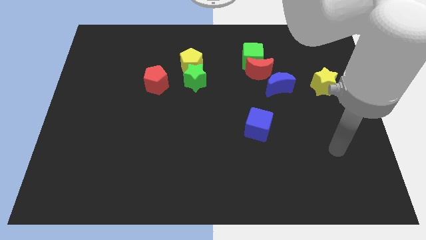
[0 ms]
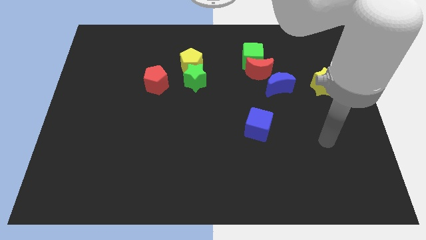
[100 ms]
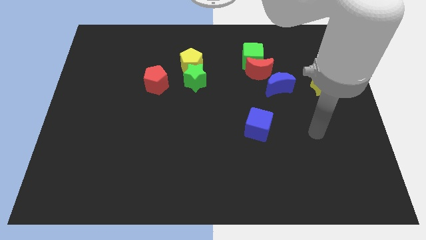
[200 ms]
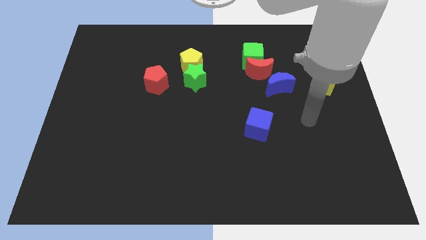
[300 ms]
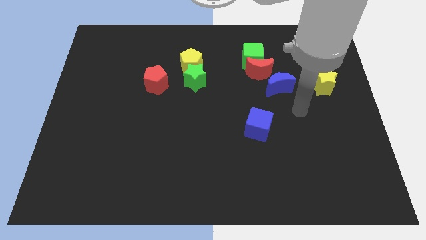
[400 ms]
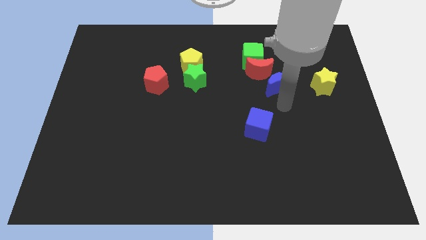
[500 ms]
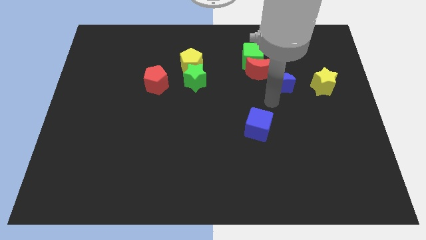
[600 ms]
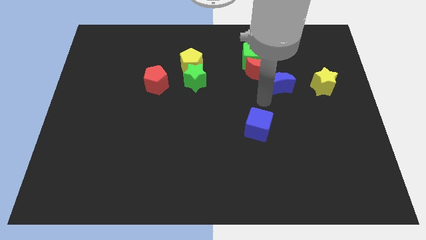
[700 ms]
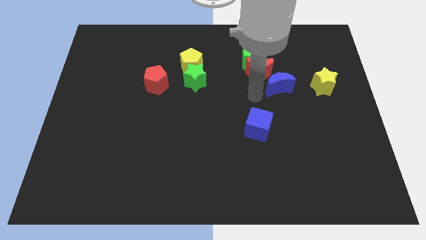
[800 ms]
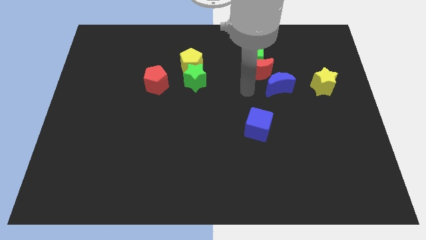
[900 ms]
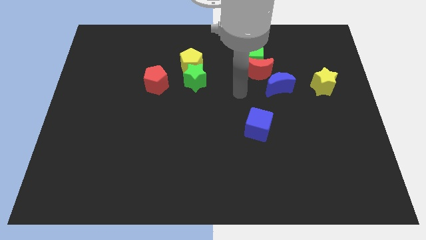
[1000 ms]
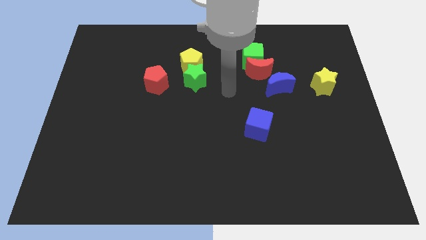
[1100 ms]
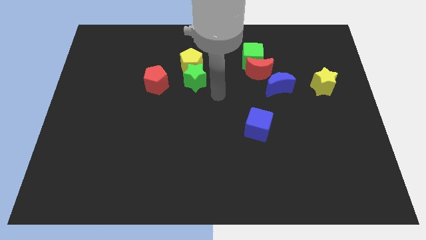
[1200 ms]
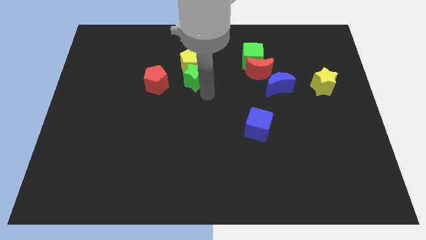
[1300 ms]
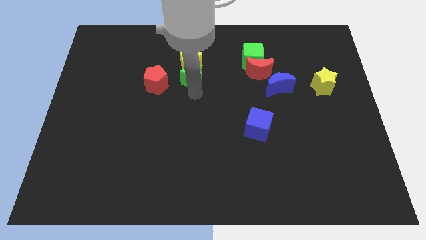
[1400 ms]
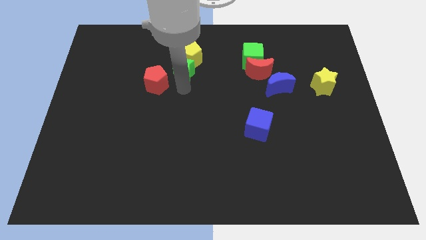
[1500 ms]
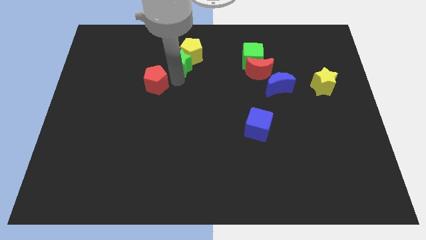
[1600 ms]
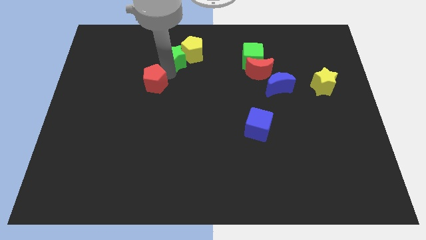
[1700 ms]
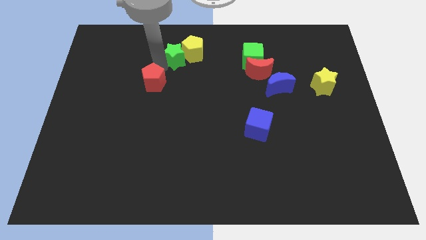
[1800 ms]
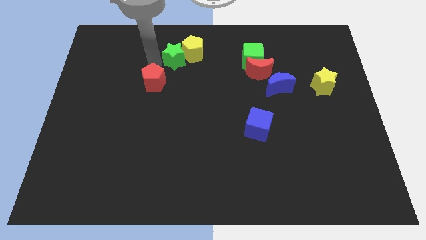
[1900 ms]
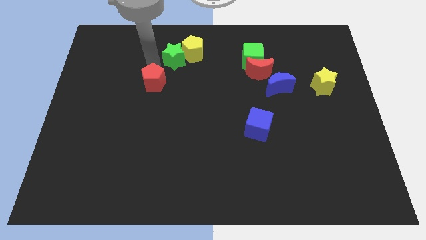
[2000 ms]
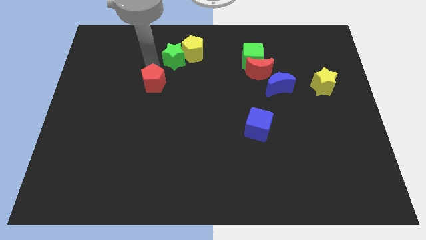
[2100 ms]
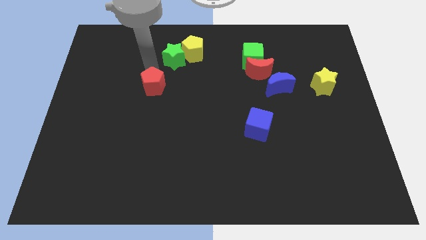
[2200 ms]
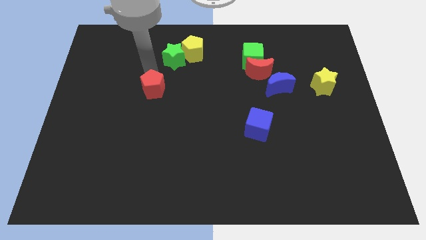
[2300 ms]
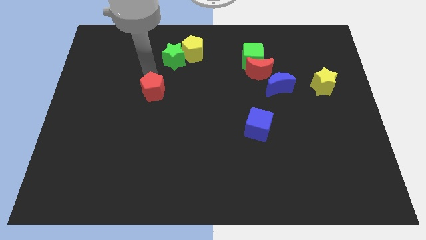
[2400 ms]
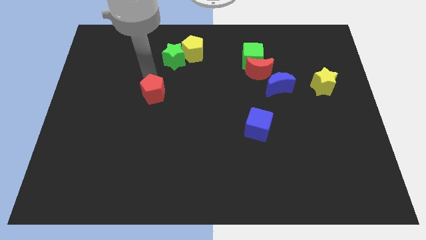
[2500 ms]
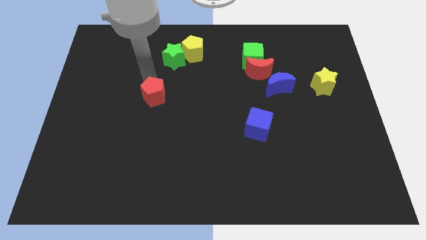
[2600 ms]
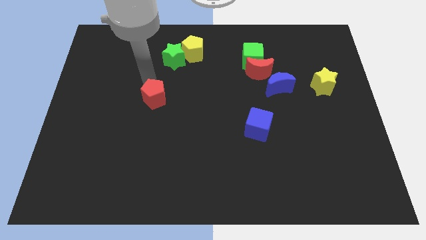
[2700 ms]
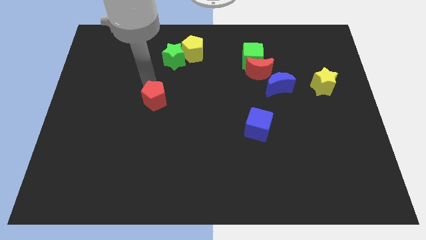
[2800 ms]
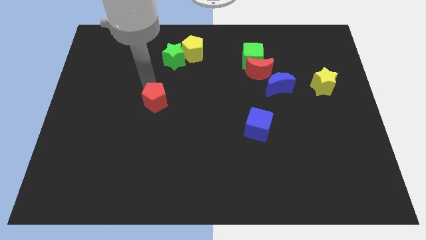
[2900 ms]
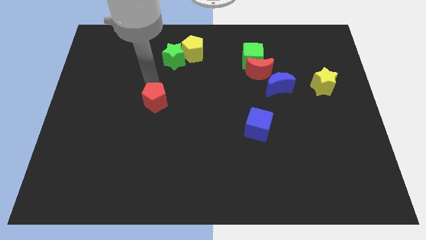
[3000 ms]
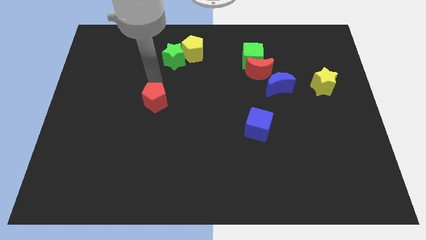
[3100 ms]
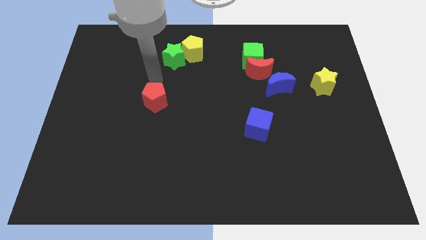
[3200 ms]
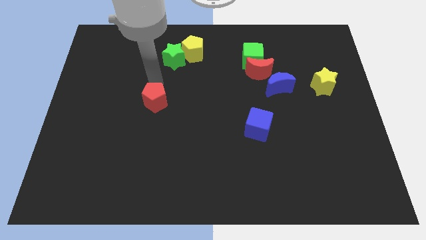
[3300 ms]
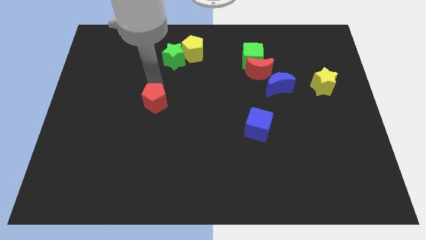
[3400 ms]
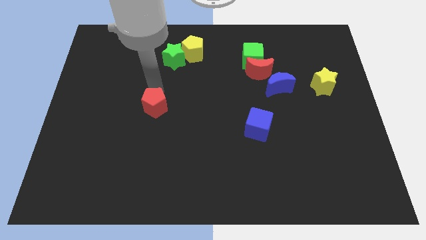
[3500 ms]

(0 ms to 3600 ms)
move the red pentagon down a little bit

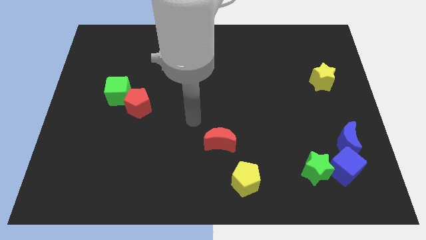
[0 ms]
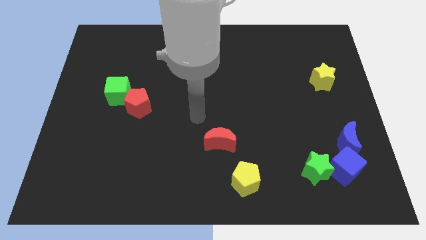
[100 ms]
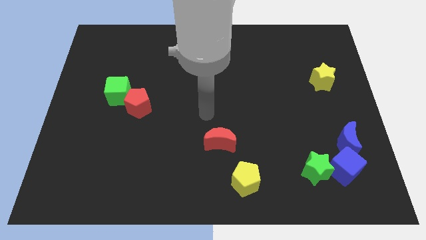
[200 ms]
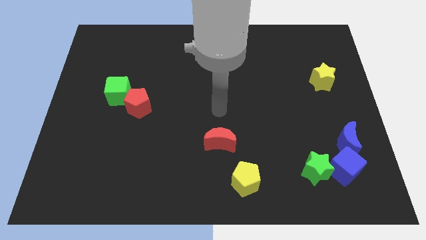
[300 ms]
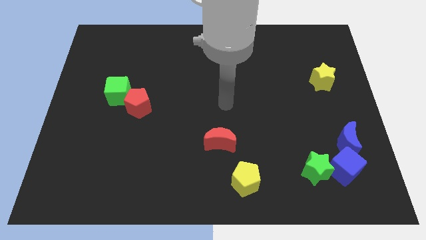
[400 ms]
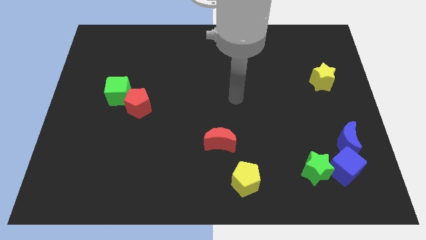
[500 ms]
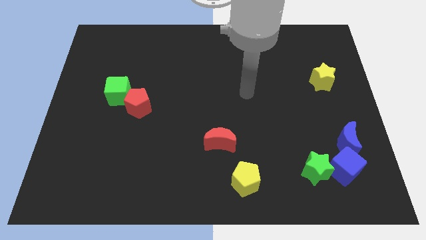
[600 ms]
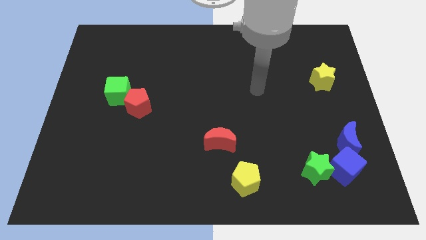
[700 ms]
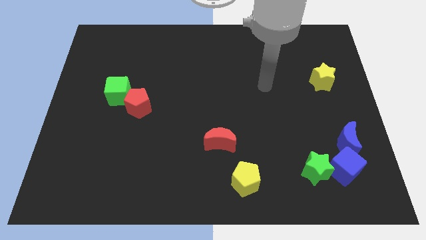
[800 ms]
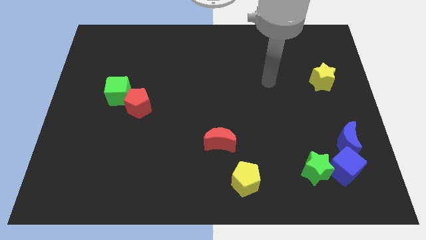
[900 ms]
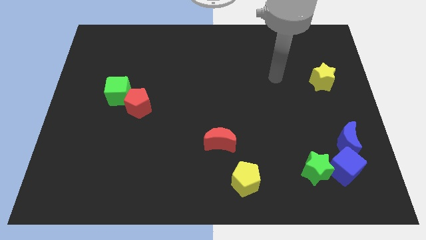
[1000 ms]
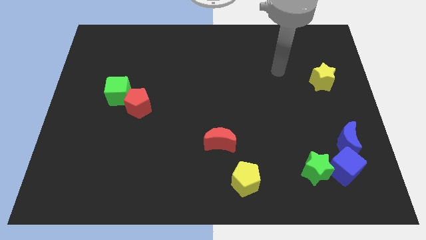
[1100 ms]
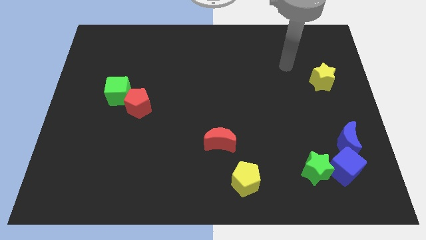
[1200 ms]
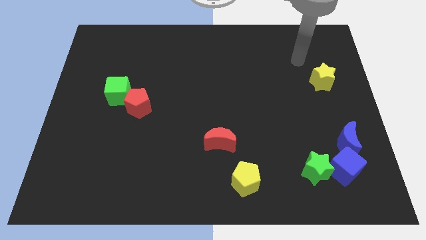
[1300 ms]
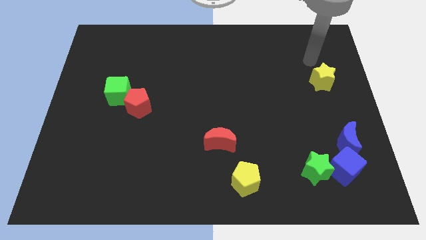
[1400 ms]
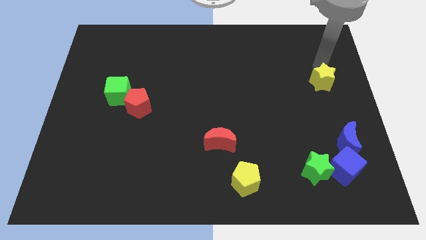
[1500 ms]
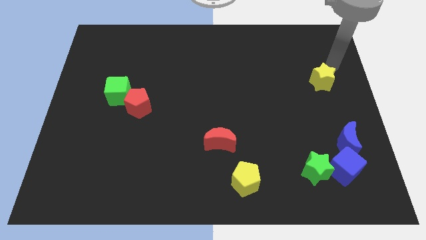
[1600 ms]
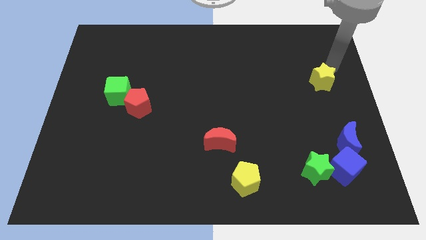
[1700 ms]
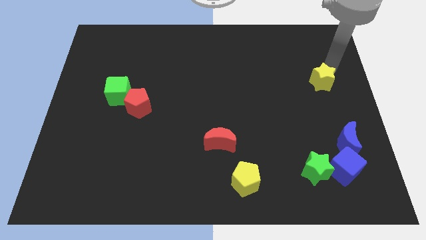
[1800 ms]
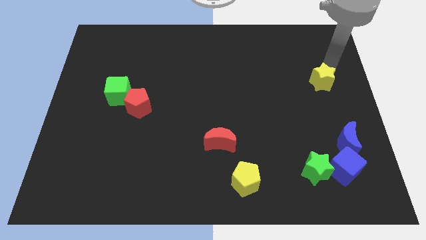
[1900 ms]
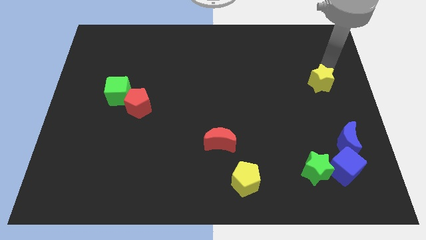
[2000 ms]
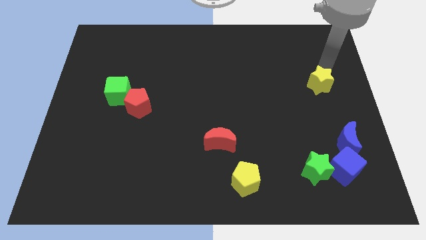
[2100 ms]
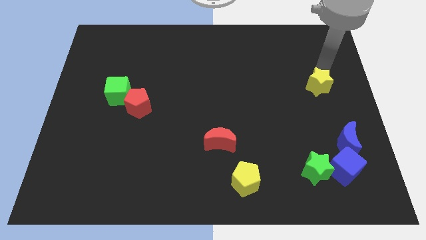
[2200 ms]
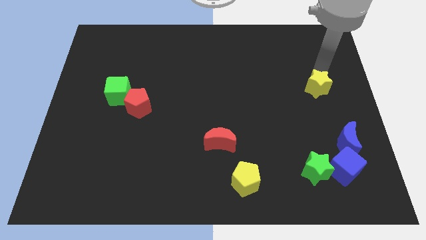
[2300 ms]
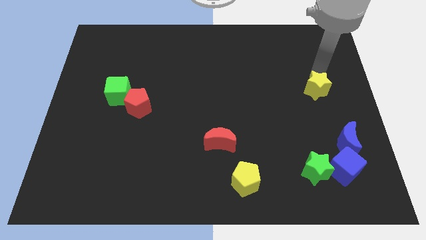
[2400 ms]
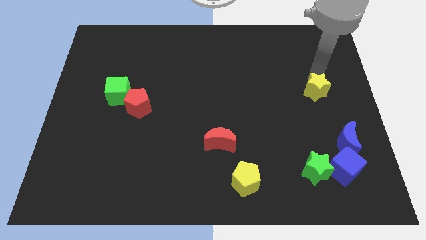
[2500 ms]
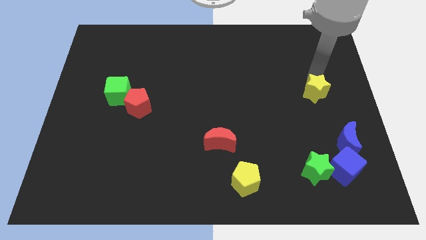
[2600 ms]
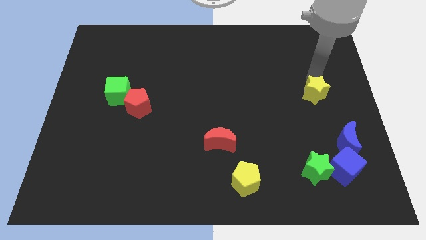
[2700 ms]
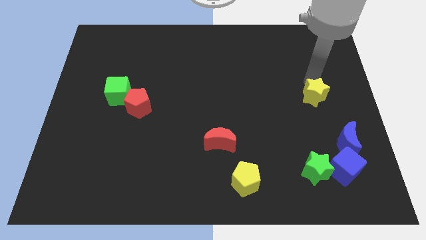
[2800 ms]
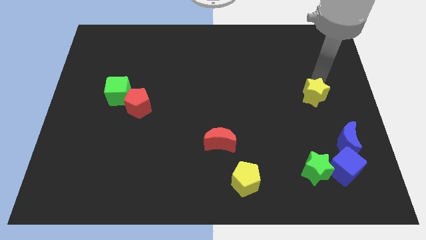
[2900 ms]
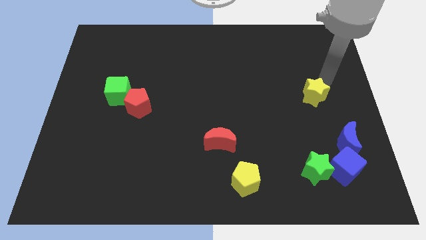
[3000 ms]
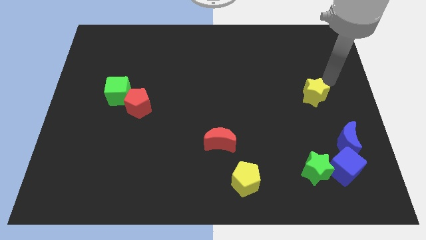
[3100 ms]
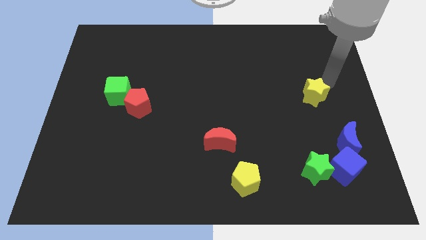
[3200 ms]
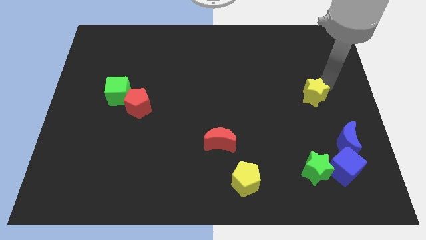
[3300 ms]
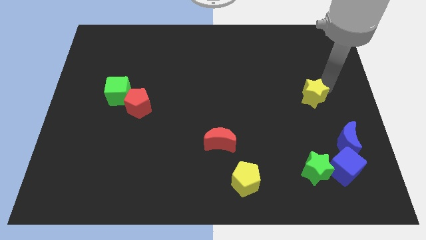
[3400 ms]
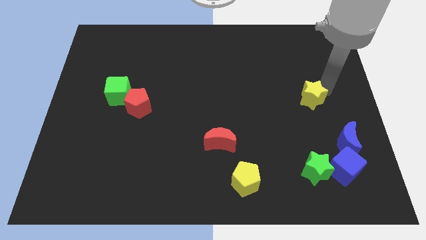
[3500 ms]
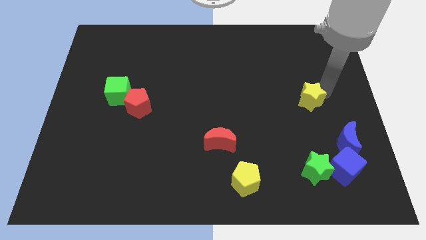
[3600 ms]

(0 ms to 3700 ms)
slightly move the yellow star diagonally downwards and left

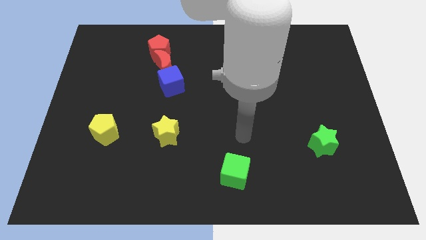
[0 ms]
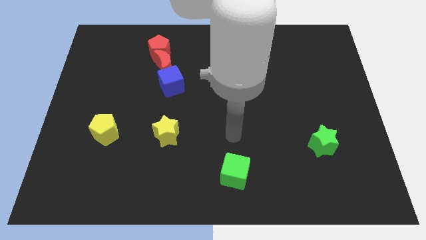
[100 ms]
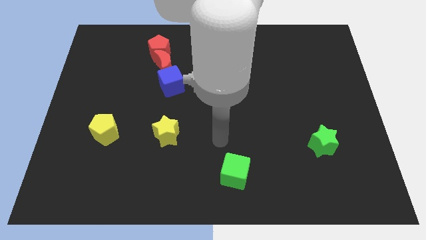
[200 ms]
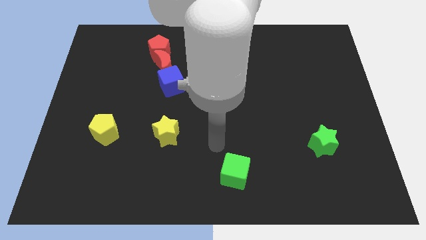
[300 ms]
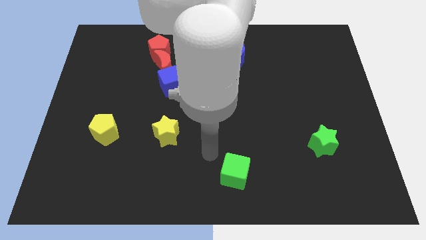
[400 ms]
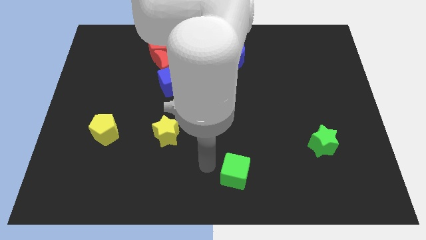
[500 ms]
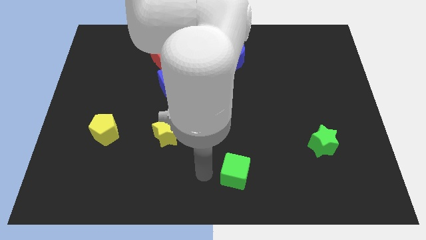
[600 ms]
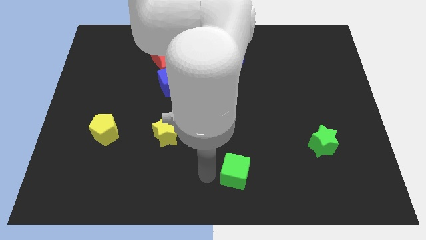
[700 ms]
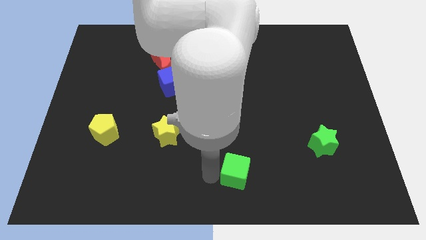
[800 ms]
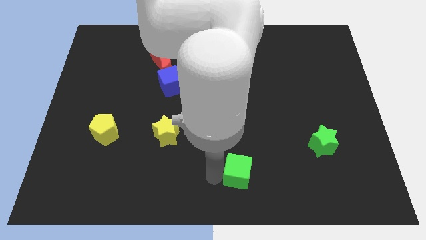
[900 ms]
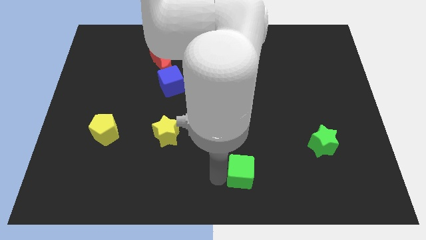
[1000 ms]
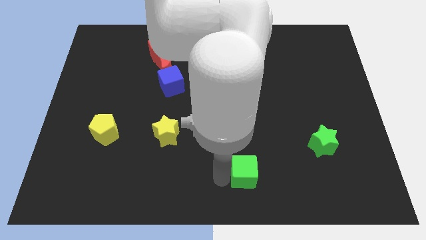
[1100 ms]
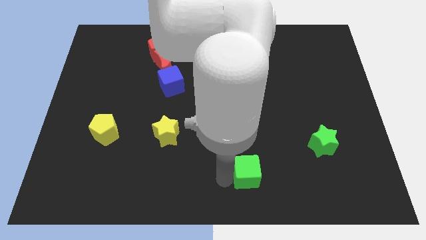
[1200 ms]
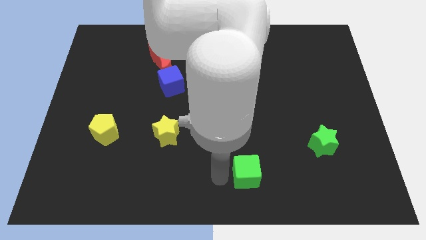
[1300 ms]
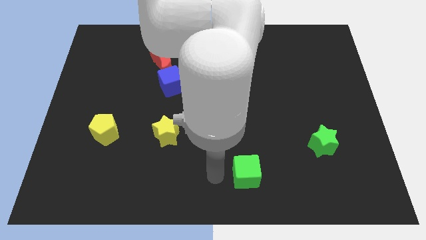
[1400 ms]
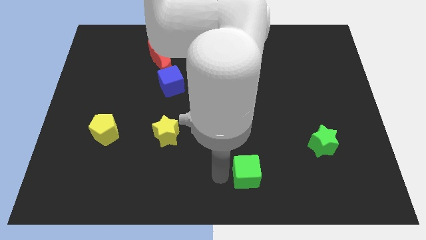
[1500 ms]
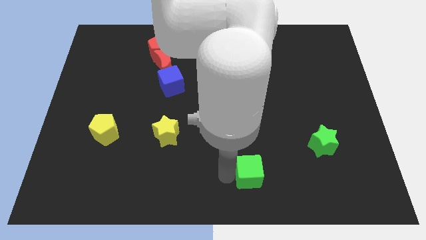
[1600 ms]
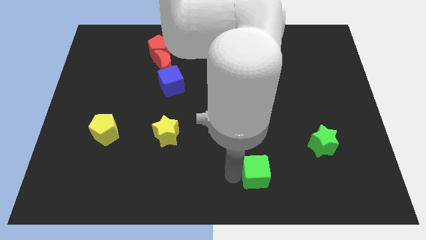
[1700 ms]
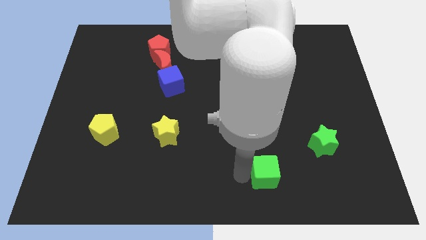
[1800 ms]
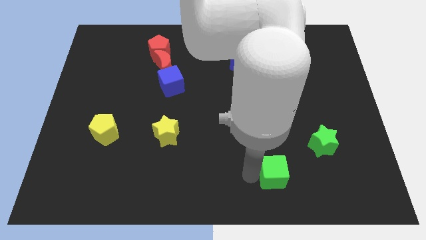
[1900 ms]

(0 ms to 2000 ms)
slightly slide the green cube right
